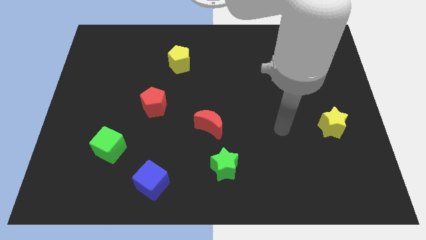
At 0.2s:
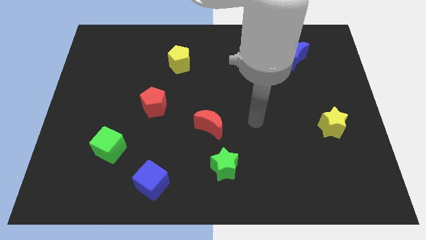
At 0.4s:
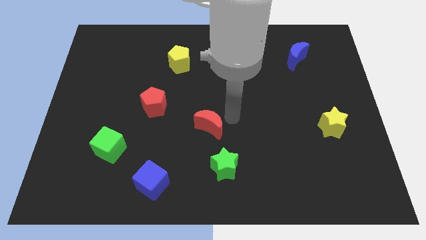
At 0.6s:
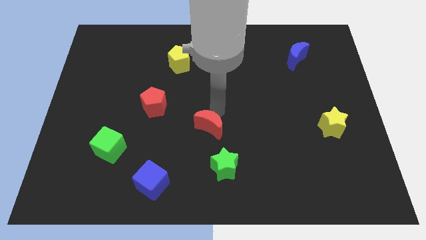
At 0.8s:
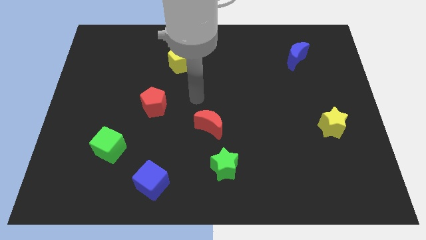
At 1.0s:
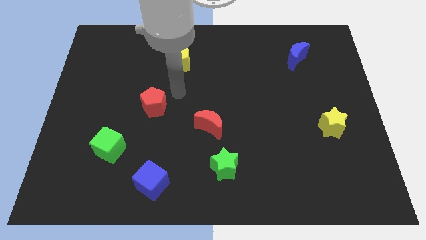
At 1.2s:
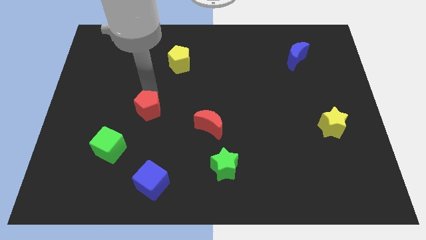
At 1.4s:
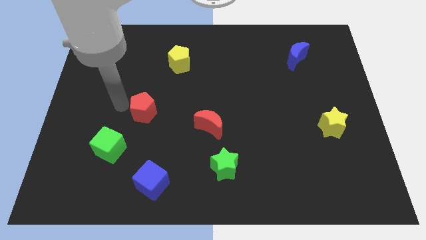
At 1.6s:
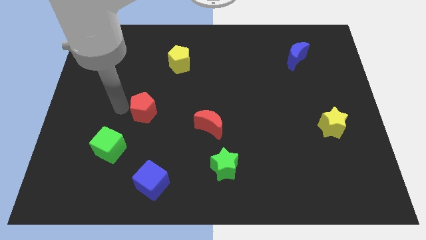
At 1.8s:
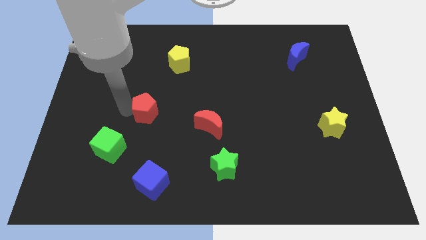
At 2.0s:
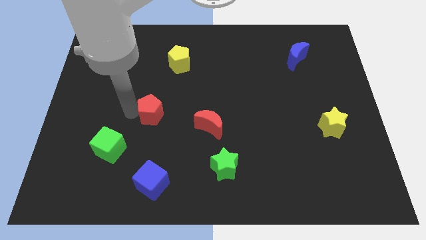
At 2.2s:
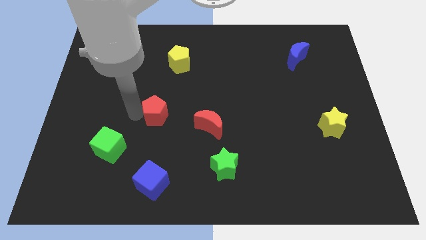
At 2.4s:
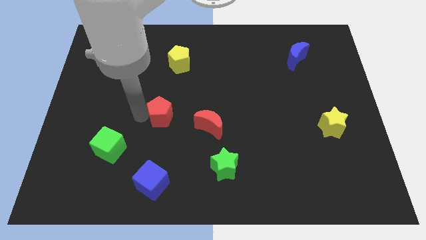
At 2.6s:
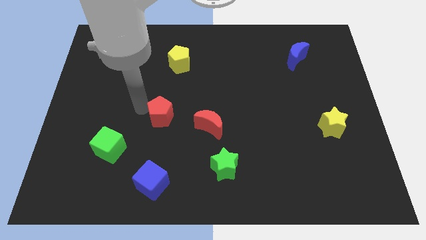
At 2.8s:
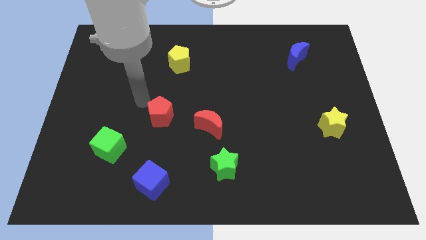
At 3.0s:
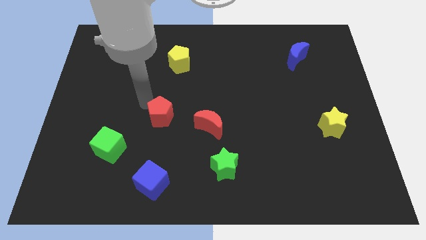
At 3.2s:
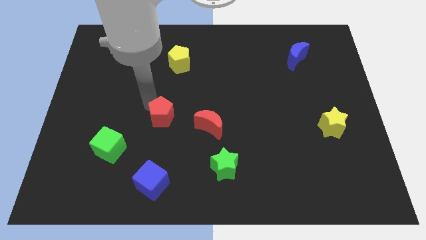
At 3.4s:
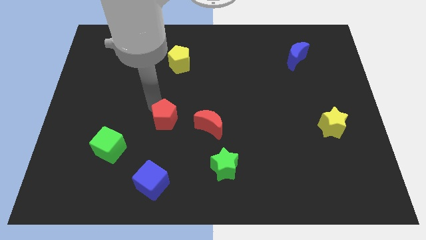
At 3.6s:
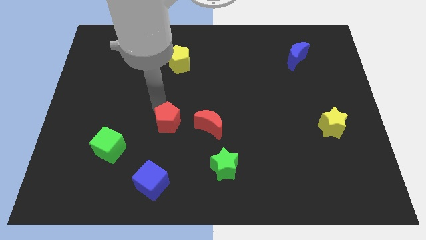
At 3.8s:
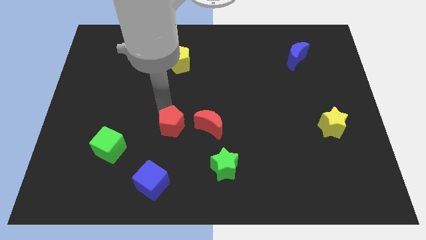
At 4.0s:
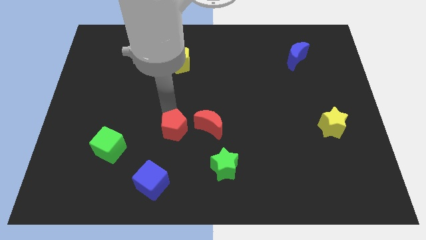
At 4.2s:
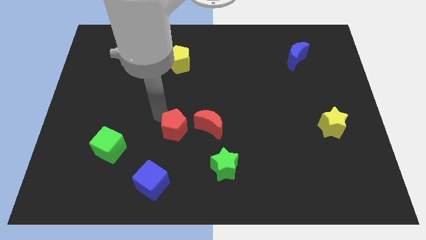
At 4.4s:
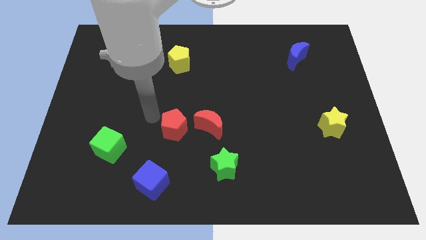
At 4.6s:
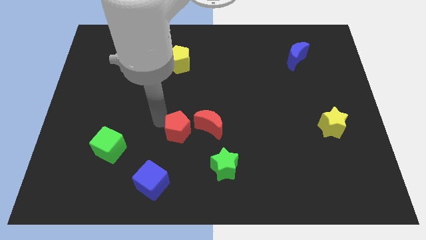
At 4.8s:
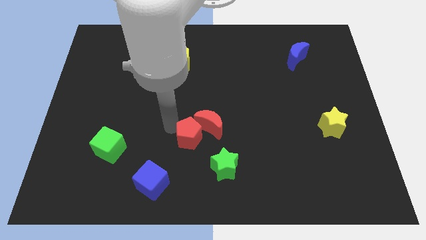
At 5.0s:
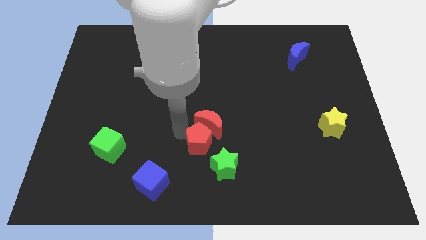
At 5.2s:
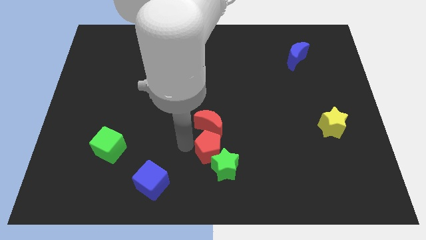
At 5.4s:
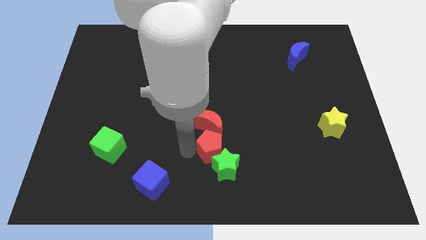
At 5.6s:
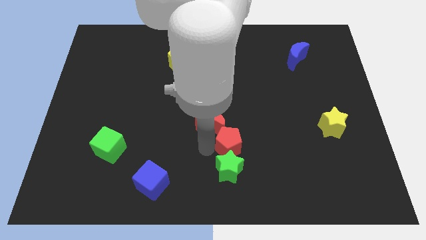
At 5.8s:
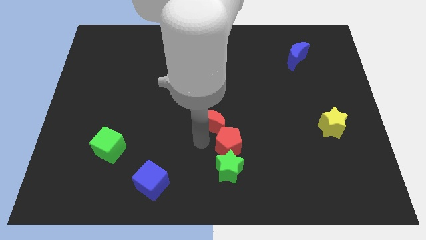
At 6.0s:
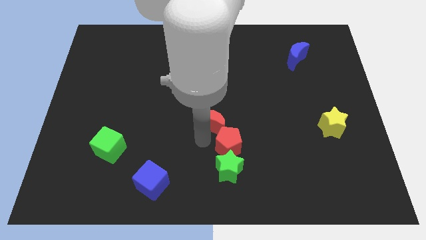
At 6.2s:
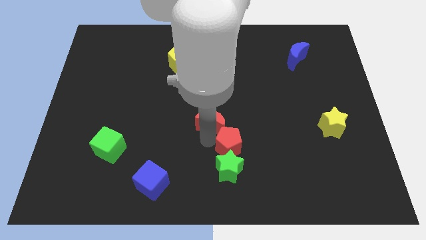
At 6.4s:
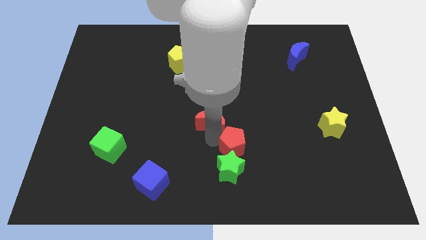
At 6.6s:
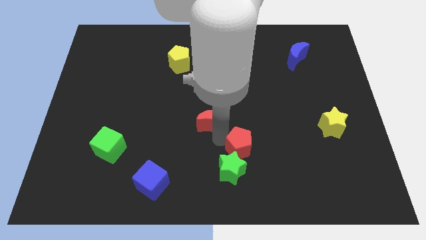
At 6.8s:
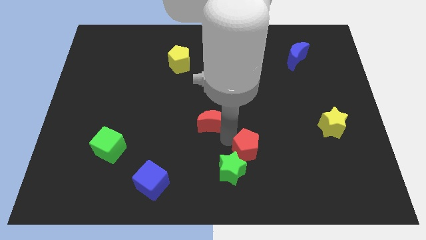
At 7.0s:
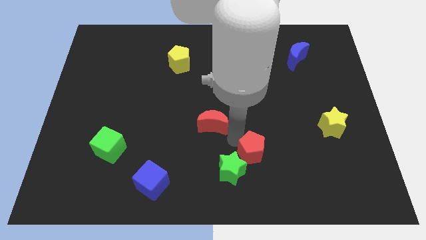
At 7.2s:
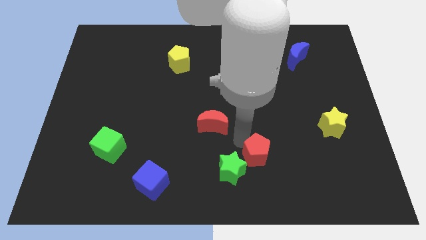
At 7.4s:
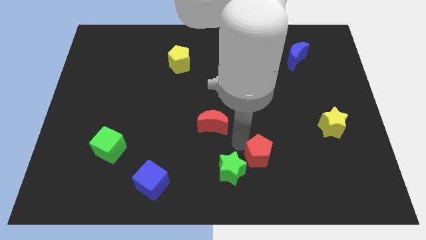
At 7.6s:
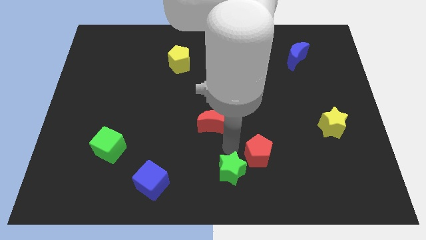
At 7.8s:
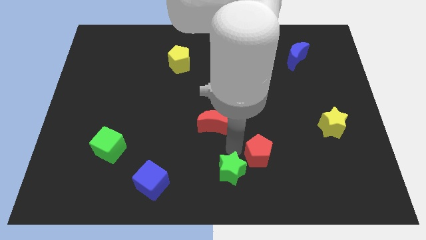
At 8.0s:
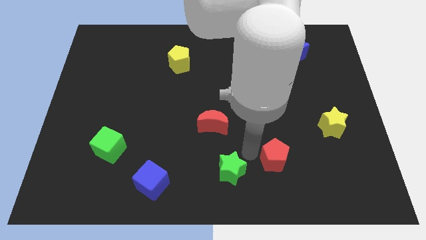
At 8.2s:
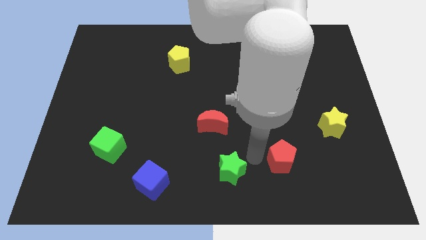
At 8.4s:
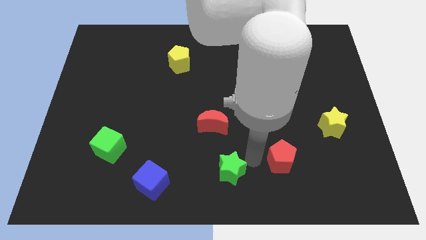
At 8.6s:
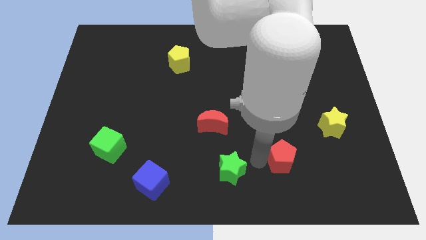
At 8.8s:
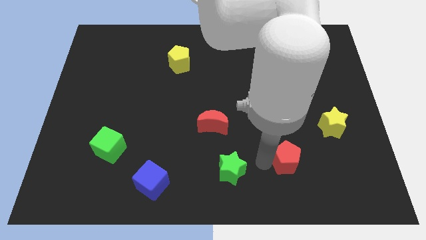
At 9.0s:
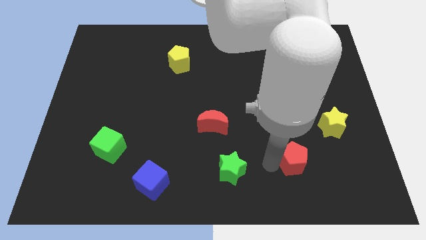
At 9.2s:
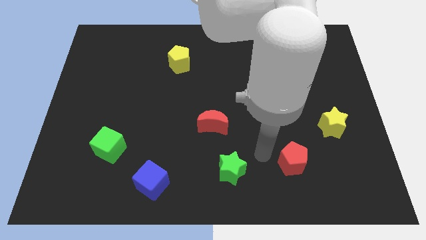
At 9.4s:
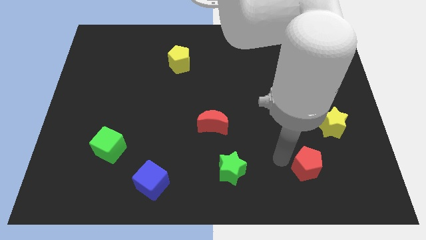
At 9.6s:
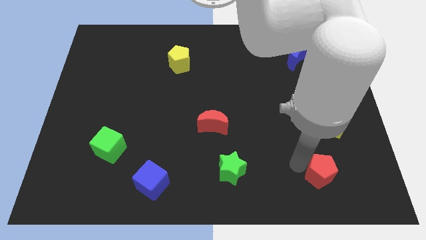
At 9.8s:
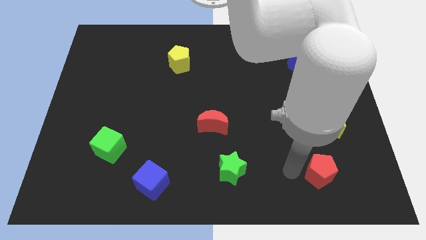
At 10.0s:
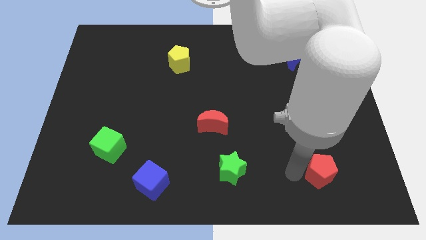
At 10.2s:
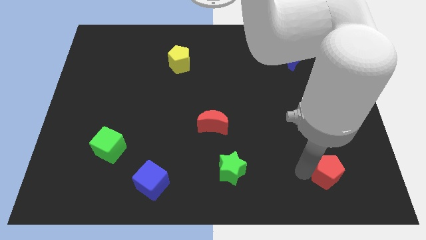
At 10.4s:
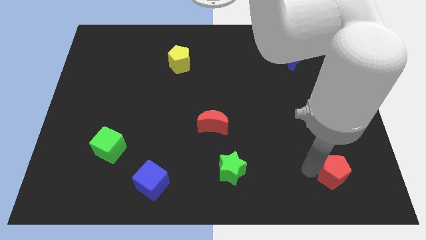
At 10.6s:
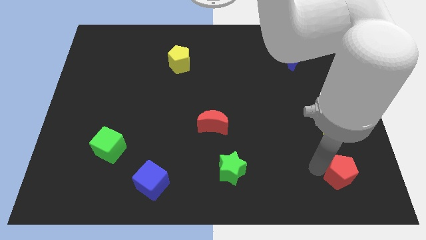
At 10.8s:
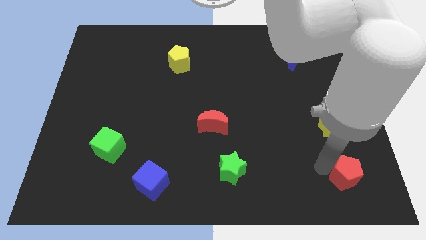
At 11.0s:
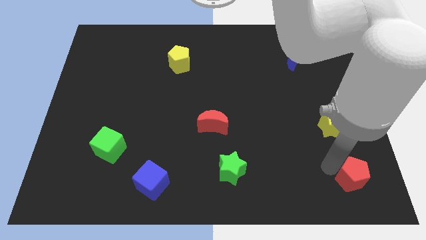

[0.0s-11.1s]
push the red pentagon to the bottom right of the board
